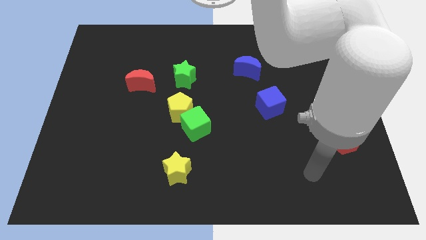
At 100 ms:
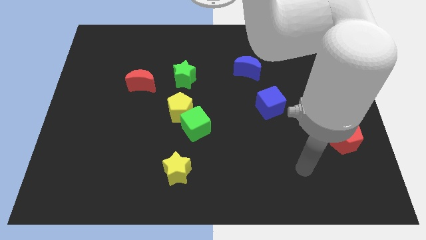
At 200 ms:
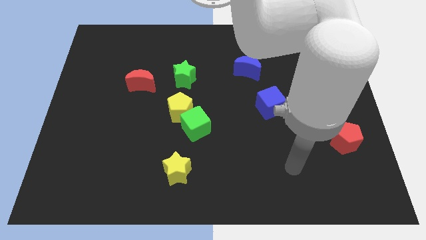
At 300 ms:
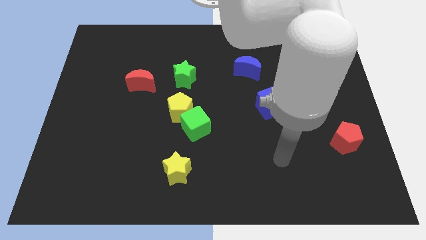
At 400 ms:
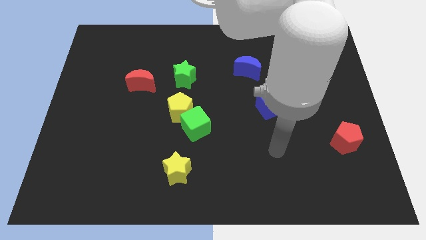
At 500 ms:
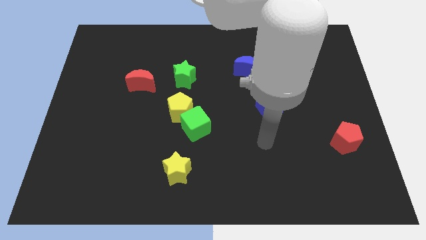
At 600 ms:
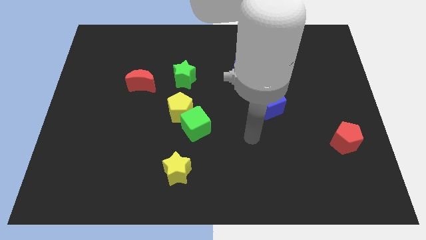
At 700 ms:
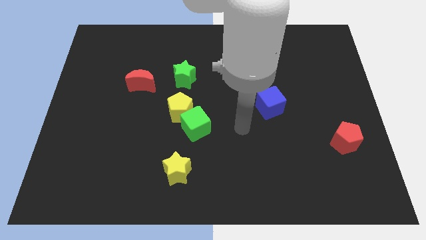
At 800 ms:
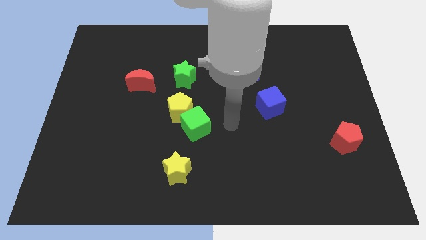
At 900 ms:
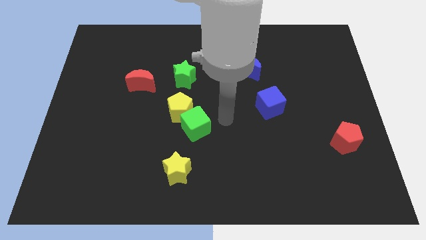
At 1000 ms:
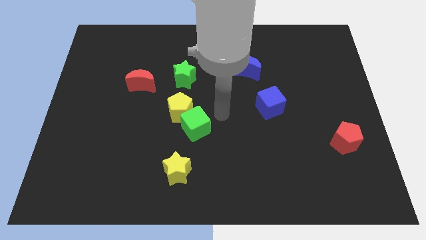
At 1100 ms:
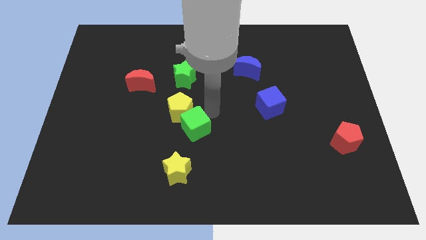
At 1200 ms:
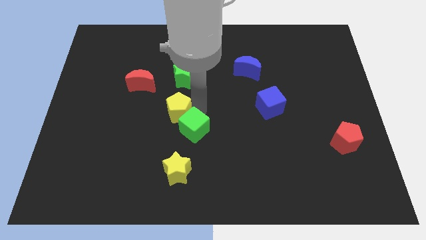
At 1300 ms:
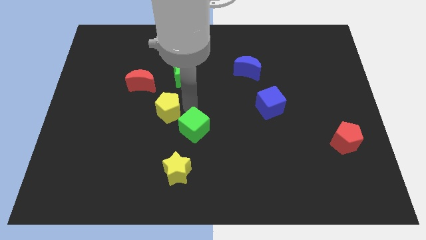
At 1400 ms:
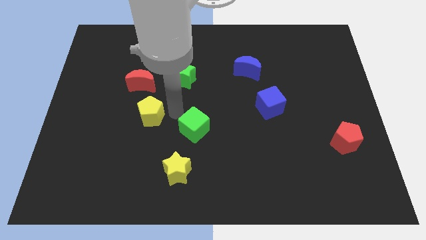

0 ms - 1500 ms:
pull the green cube apart from the yellow pentagon

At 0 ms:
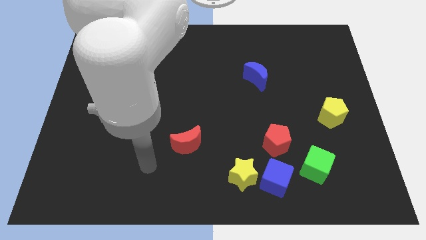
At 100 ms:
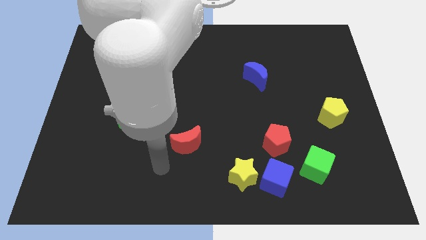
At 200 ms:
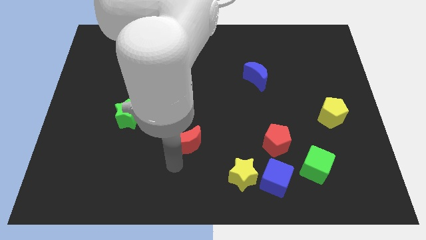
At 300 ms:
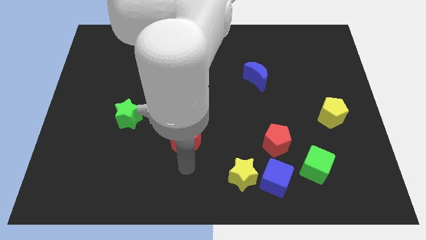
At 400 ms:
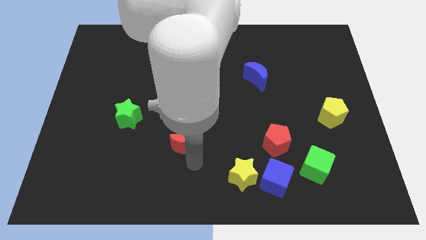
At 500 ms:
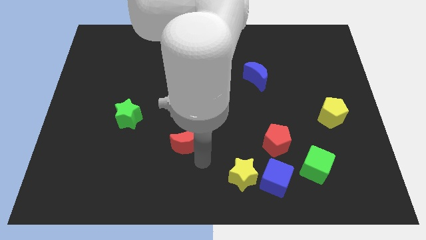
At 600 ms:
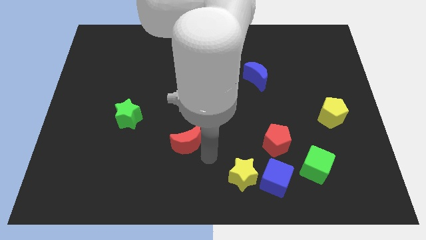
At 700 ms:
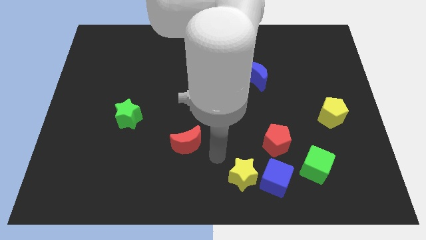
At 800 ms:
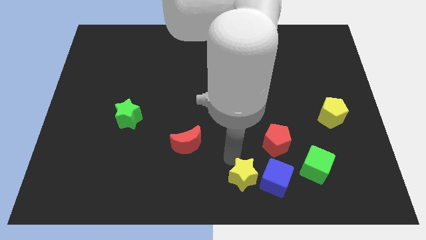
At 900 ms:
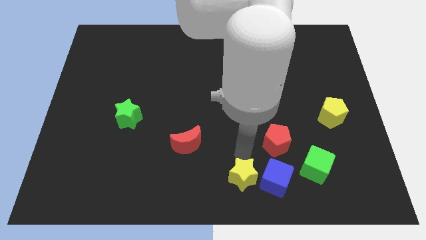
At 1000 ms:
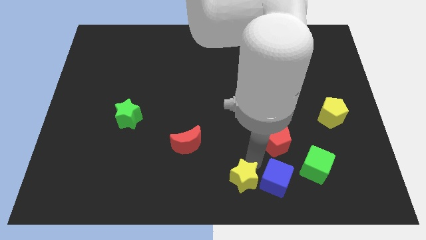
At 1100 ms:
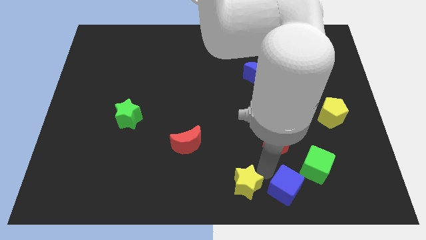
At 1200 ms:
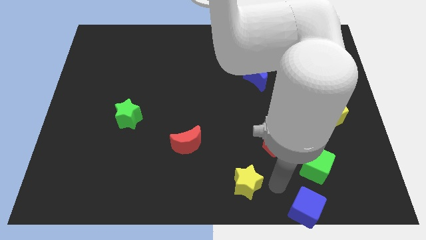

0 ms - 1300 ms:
separate the yellow star from the blue cube

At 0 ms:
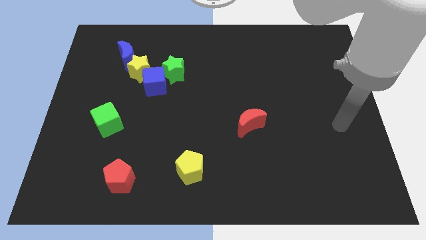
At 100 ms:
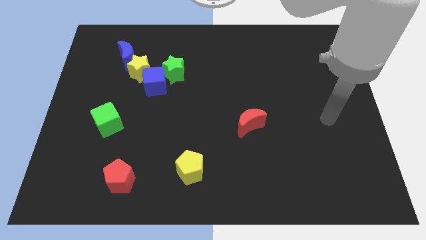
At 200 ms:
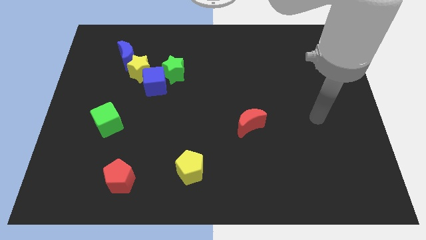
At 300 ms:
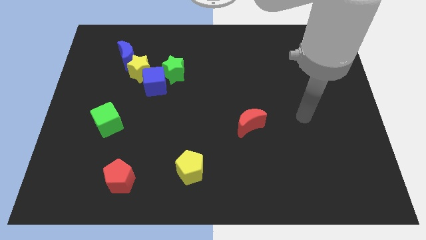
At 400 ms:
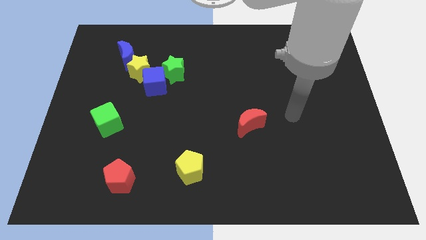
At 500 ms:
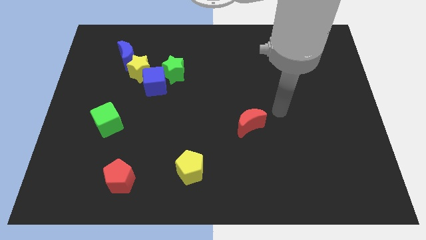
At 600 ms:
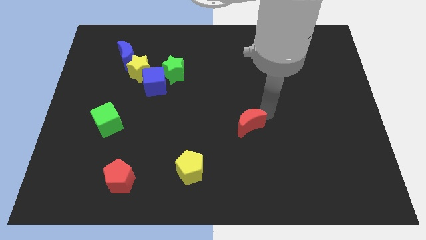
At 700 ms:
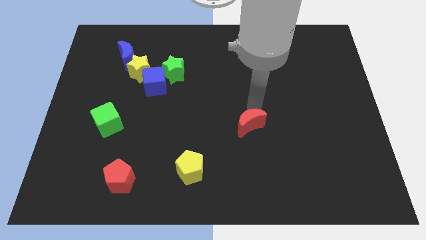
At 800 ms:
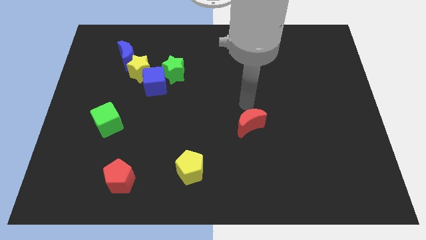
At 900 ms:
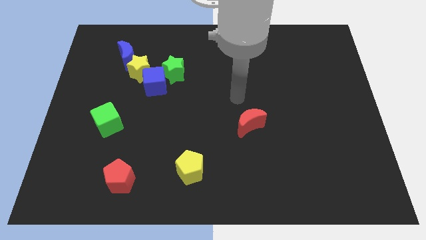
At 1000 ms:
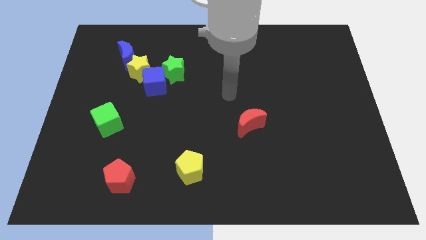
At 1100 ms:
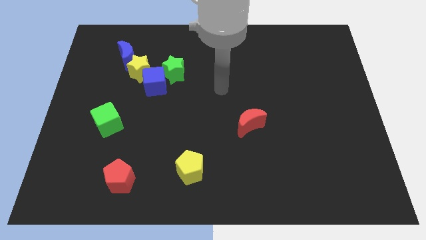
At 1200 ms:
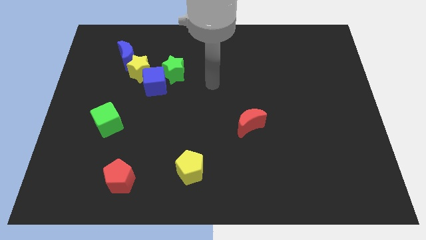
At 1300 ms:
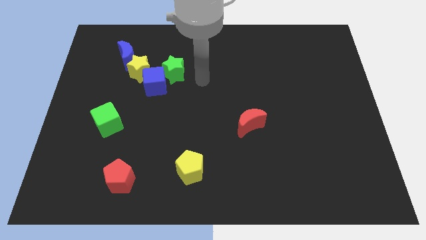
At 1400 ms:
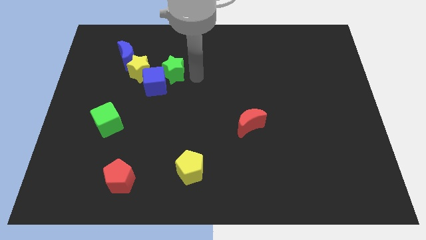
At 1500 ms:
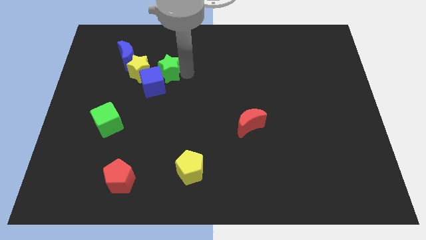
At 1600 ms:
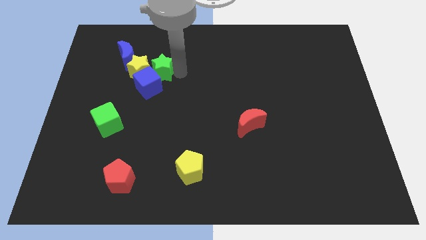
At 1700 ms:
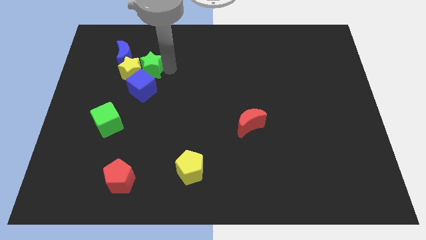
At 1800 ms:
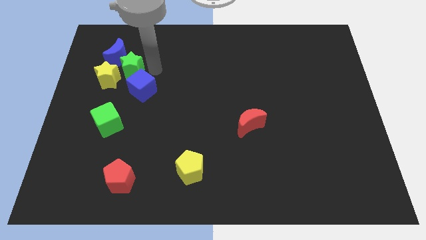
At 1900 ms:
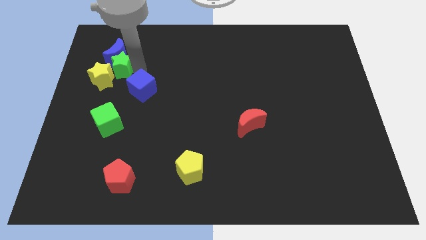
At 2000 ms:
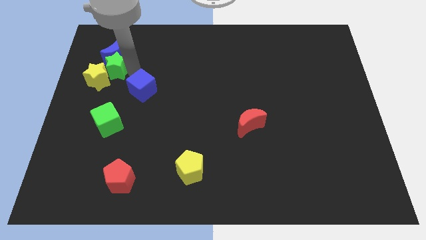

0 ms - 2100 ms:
pull the blue cube apart from the green star and yellow star

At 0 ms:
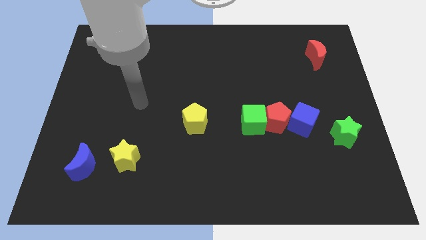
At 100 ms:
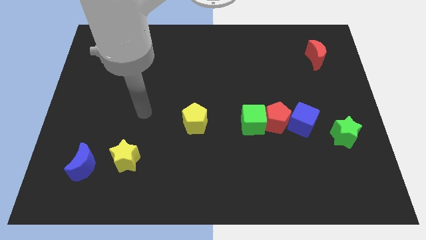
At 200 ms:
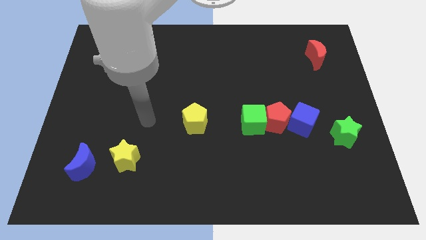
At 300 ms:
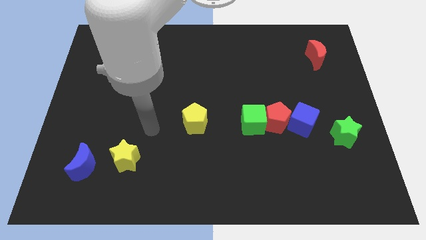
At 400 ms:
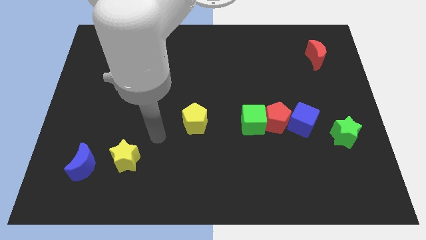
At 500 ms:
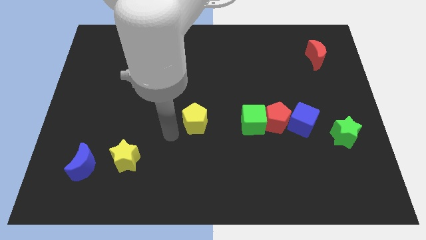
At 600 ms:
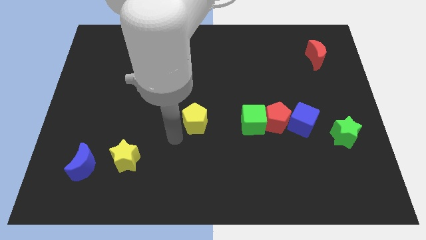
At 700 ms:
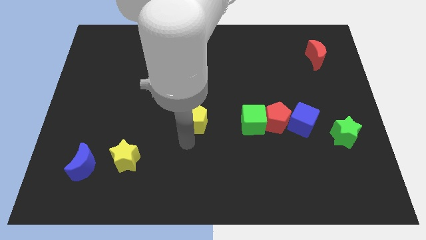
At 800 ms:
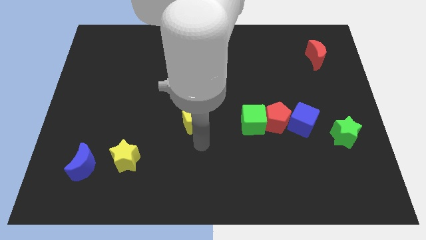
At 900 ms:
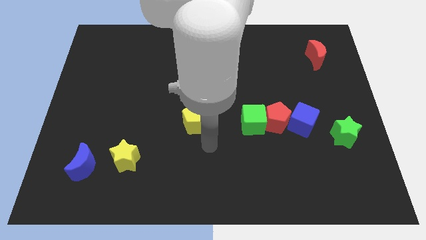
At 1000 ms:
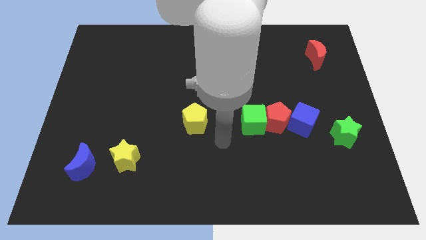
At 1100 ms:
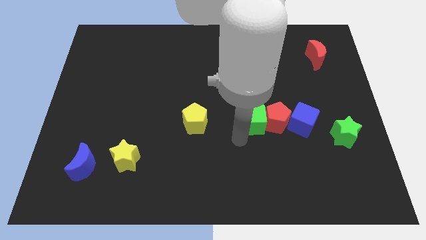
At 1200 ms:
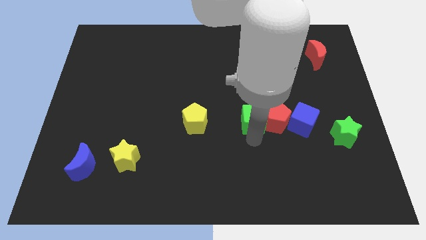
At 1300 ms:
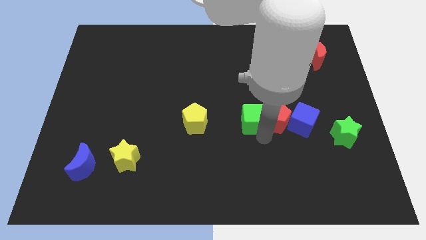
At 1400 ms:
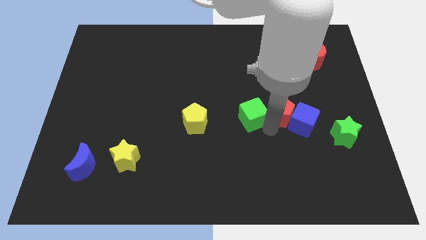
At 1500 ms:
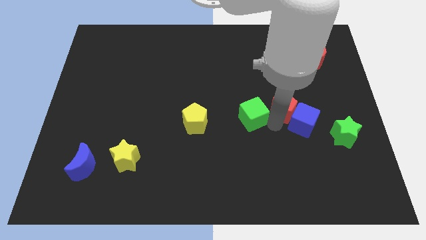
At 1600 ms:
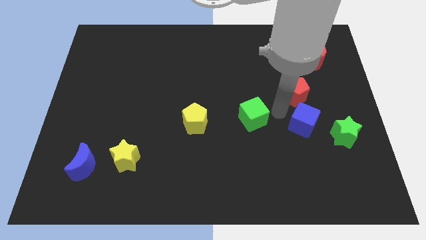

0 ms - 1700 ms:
move the green cube away from the red pentagon

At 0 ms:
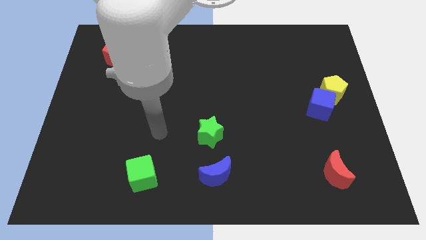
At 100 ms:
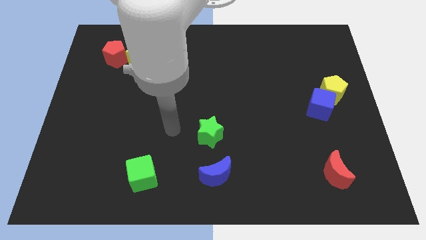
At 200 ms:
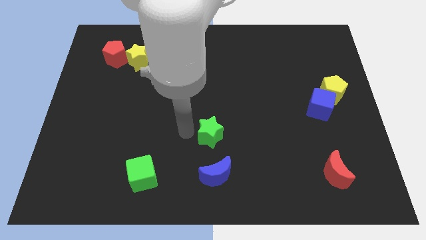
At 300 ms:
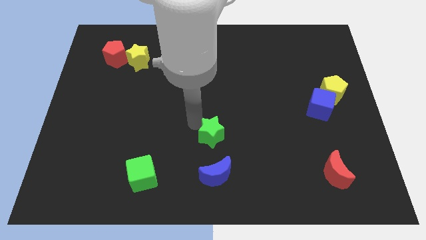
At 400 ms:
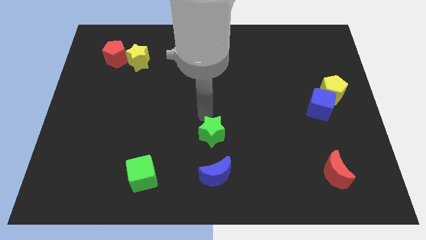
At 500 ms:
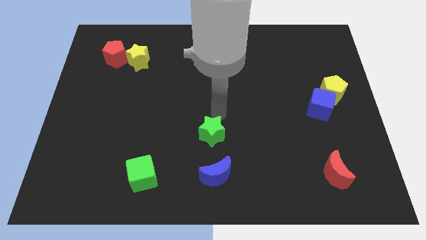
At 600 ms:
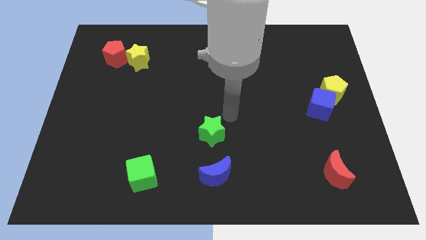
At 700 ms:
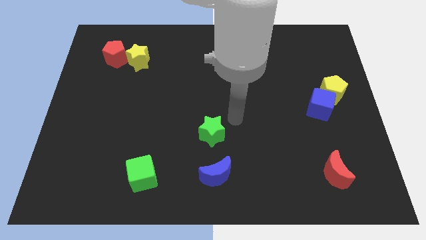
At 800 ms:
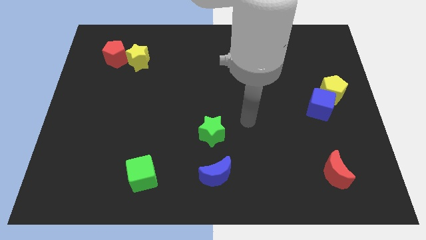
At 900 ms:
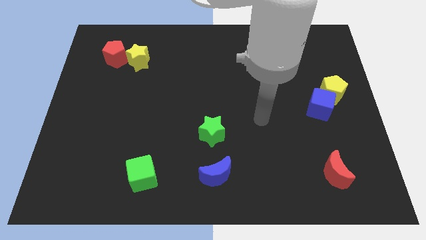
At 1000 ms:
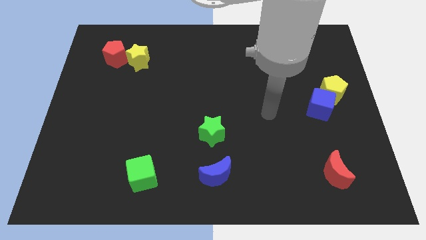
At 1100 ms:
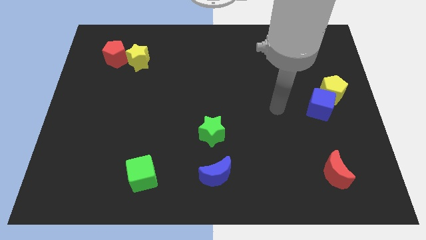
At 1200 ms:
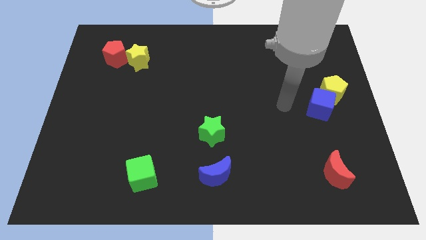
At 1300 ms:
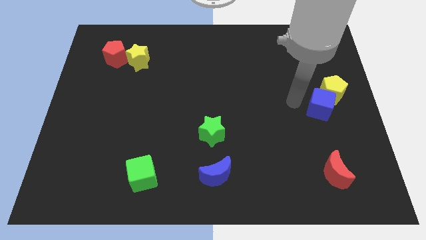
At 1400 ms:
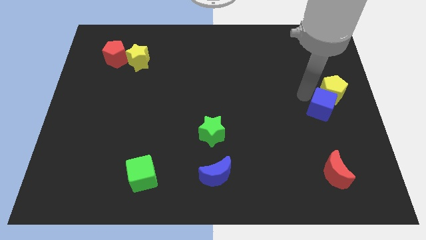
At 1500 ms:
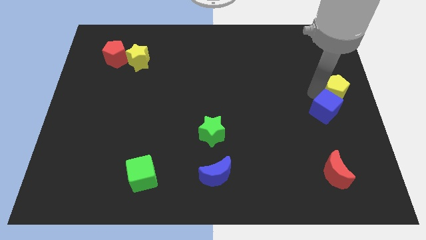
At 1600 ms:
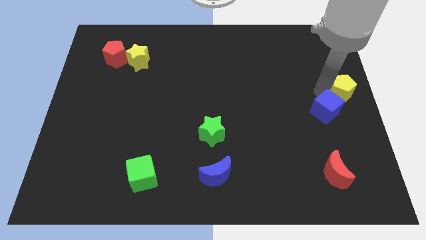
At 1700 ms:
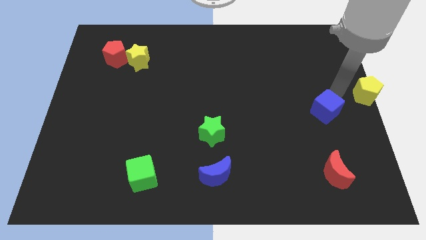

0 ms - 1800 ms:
separate the blue cube from the yellow pentagon

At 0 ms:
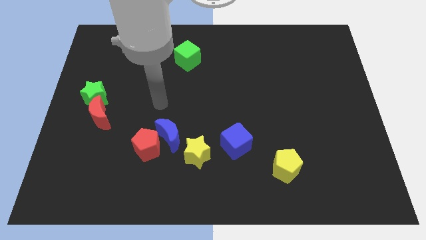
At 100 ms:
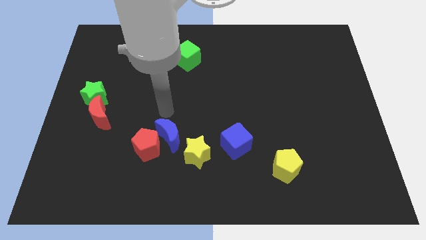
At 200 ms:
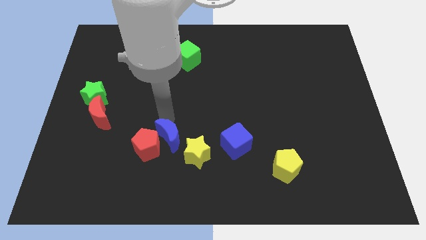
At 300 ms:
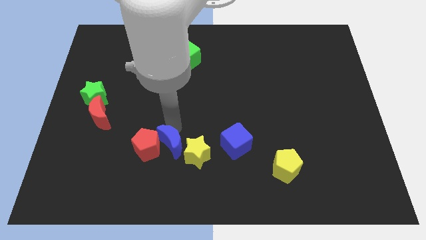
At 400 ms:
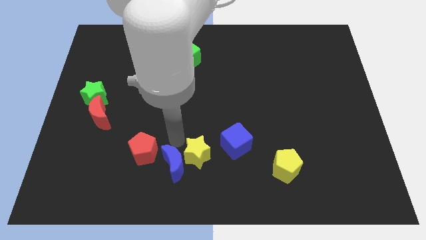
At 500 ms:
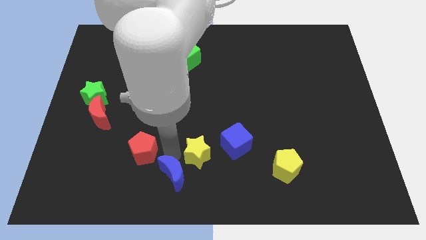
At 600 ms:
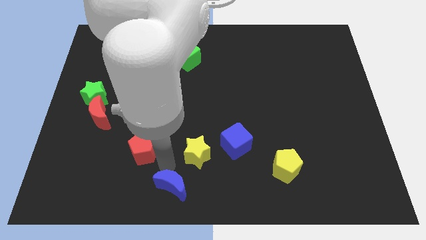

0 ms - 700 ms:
pull the red pentagon apart from the blue moon

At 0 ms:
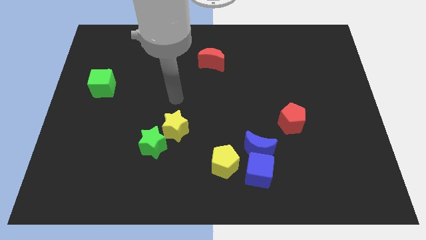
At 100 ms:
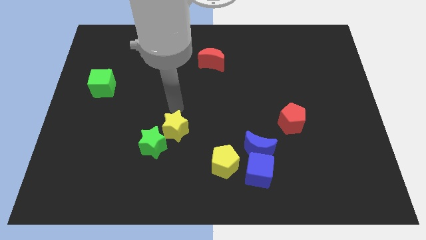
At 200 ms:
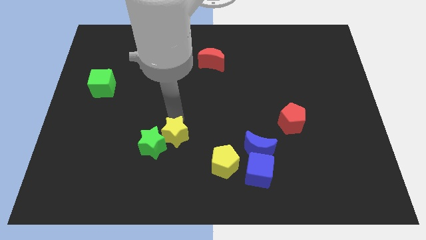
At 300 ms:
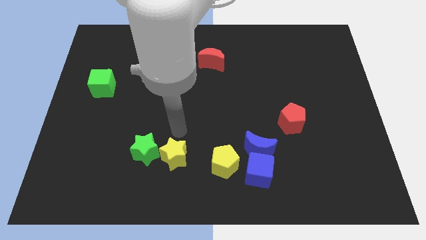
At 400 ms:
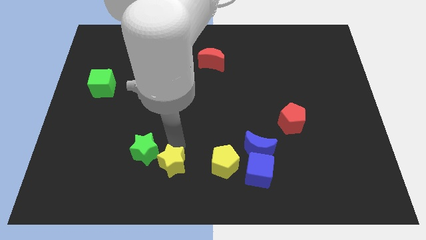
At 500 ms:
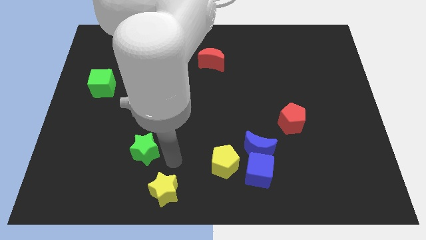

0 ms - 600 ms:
pull the green star apart from the yellow star
